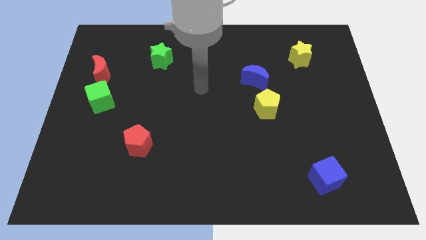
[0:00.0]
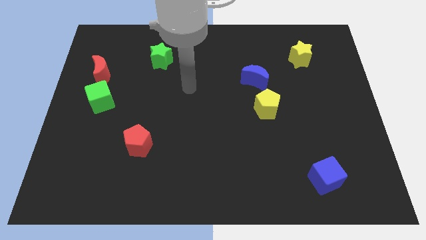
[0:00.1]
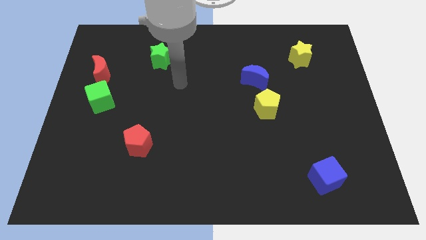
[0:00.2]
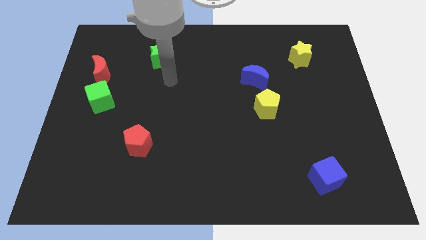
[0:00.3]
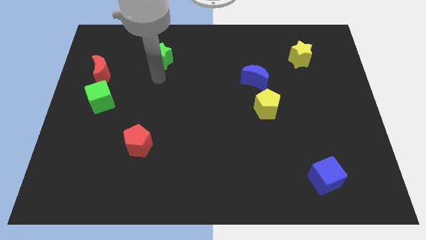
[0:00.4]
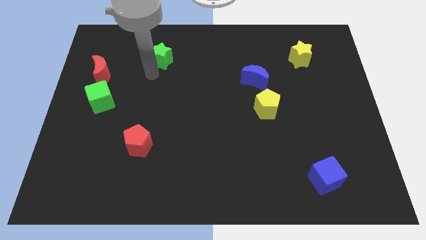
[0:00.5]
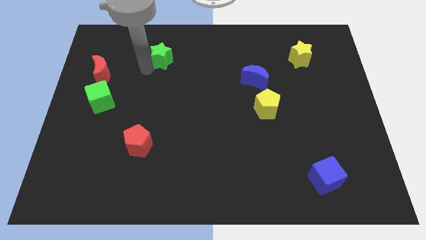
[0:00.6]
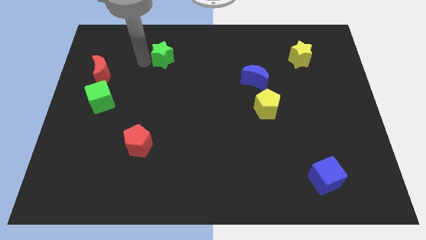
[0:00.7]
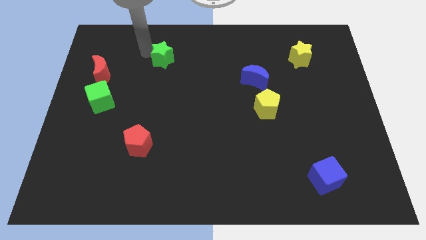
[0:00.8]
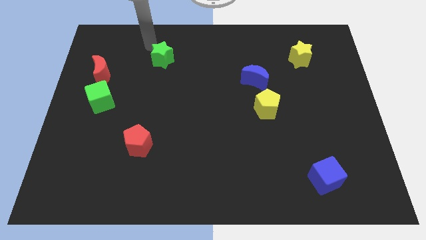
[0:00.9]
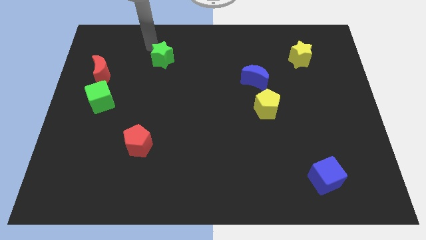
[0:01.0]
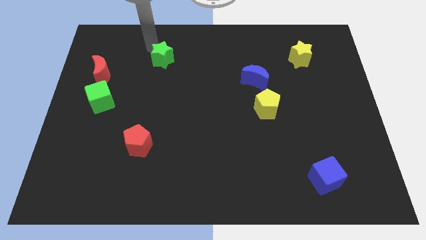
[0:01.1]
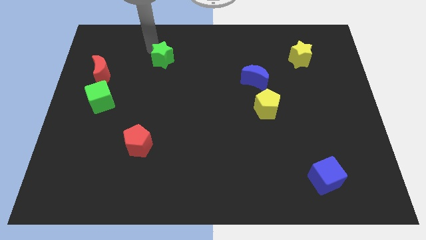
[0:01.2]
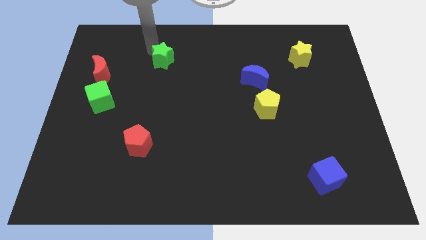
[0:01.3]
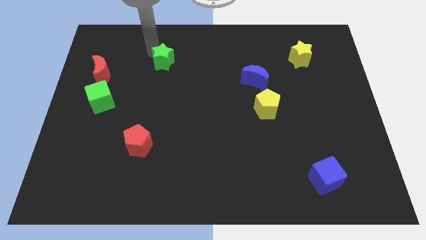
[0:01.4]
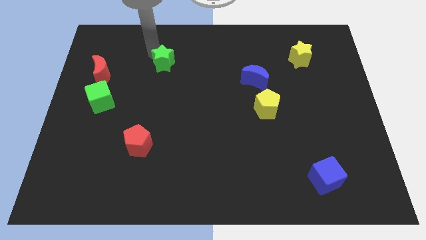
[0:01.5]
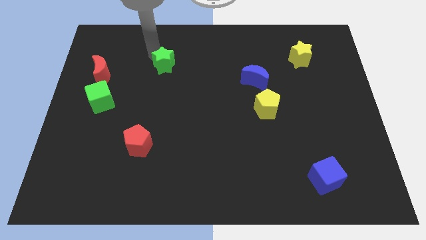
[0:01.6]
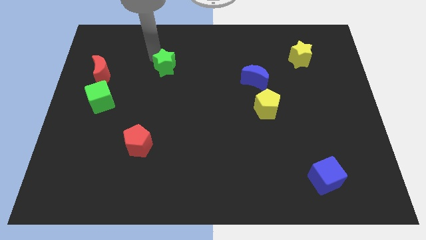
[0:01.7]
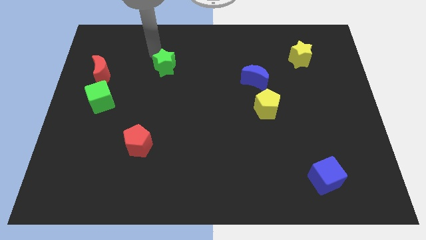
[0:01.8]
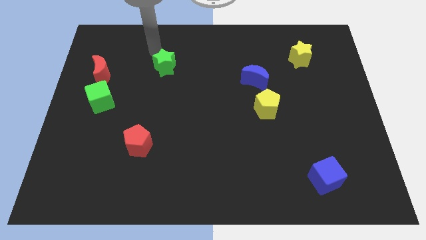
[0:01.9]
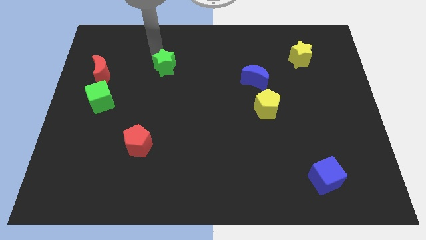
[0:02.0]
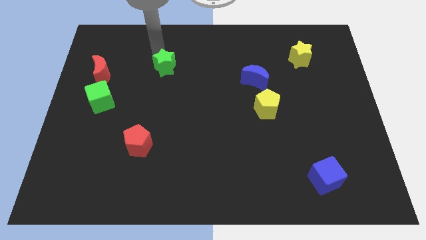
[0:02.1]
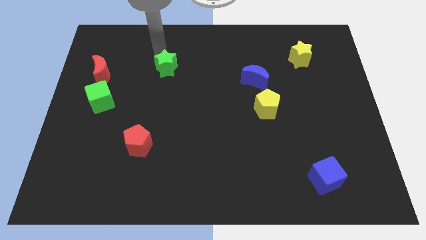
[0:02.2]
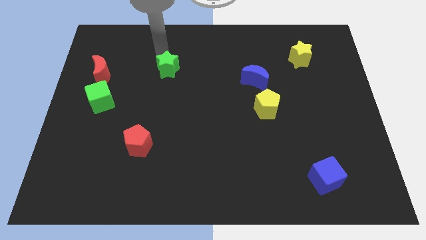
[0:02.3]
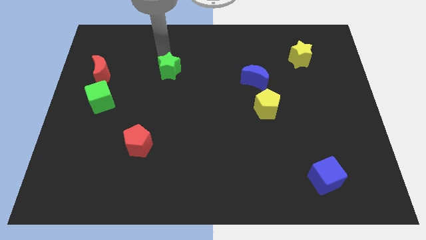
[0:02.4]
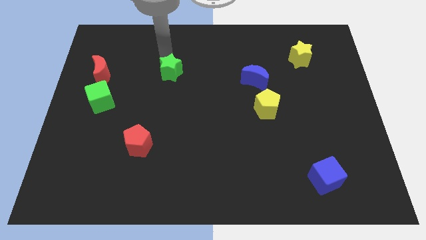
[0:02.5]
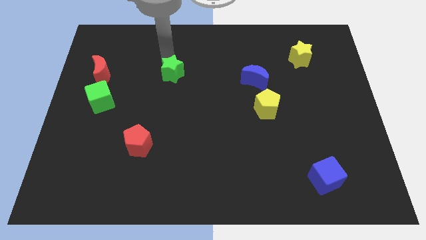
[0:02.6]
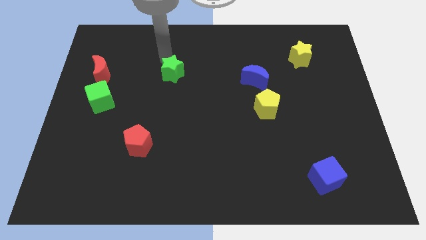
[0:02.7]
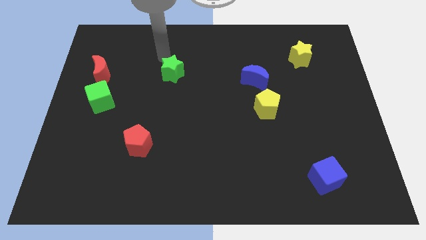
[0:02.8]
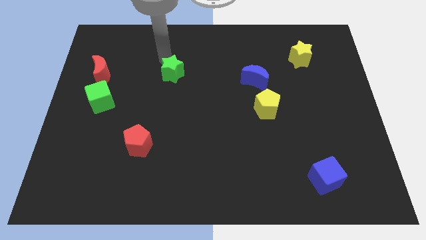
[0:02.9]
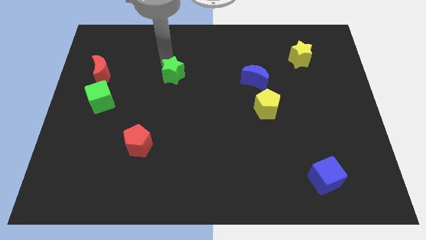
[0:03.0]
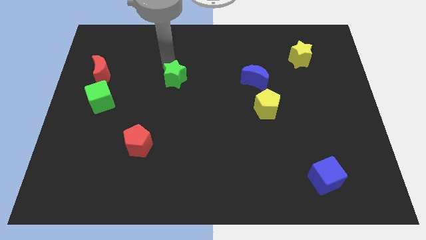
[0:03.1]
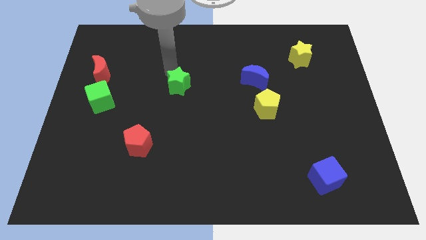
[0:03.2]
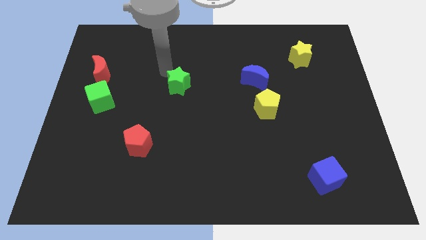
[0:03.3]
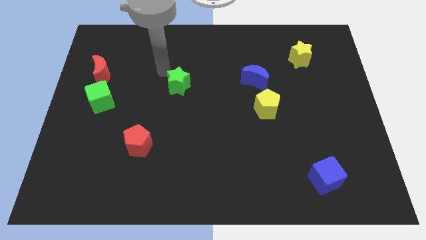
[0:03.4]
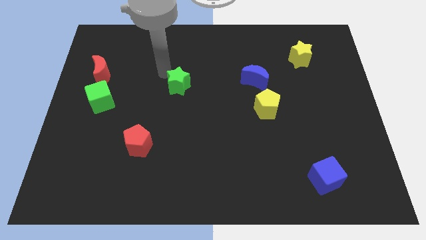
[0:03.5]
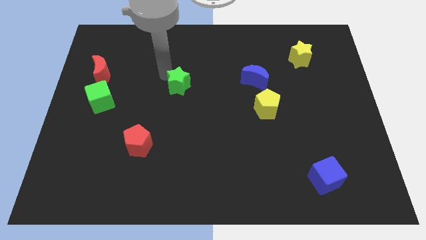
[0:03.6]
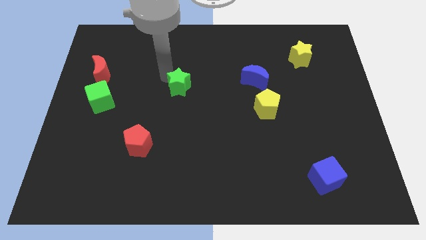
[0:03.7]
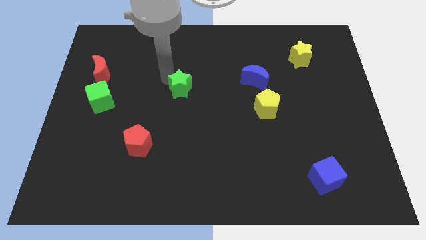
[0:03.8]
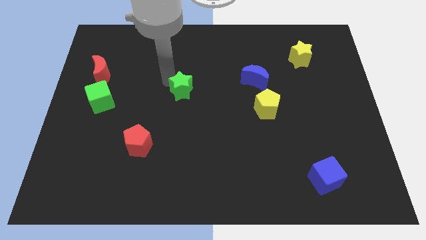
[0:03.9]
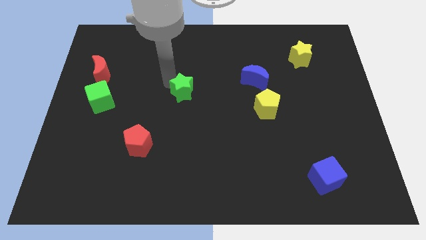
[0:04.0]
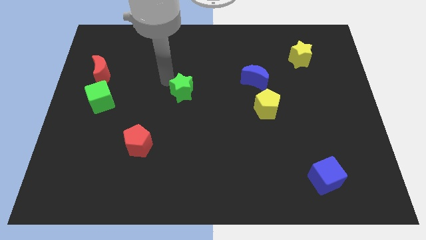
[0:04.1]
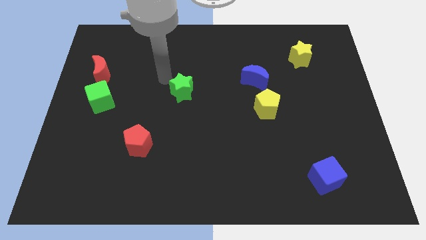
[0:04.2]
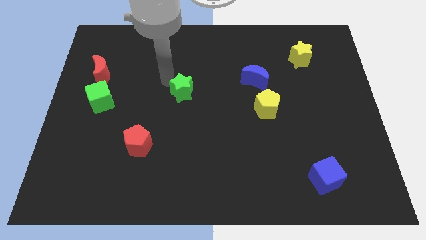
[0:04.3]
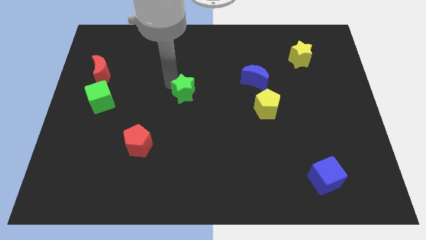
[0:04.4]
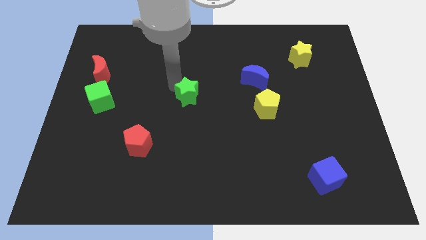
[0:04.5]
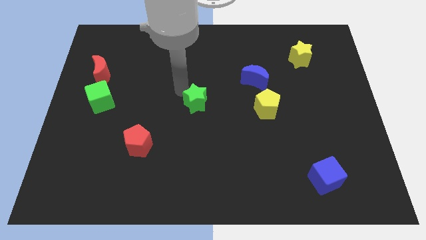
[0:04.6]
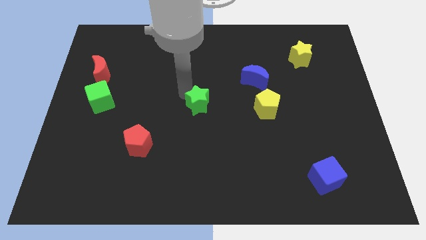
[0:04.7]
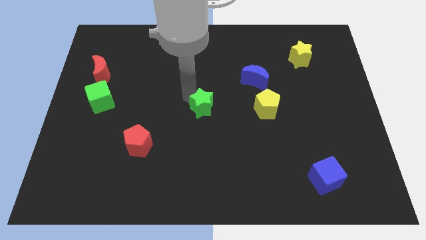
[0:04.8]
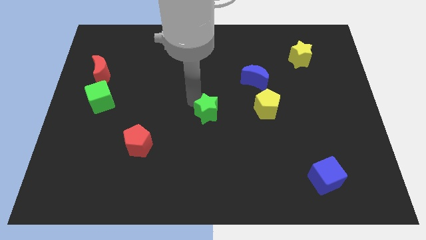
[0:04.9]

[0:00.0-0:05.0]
slide the green star down and then right

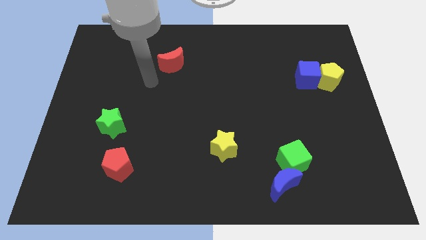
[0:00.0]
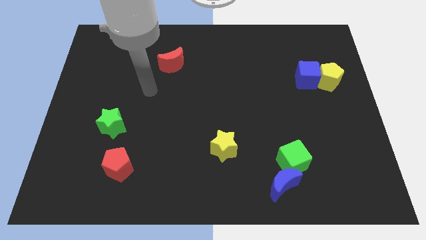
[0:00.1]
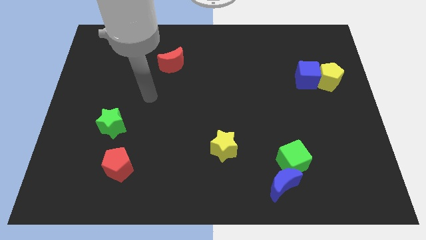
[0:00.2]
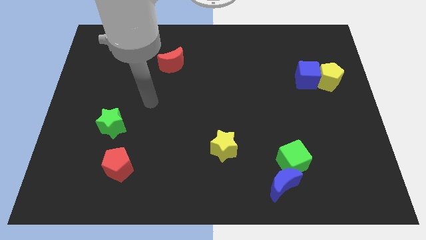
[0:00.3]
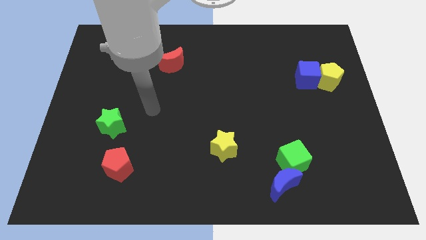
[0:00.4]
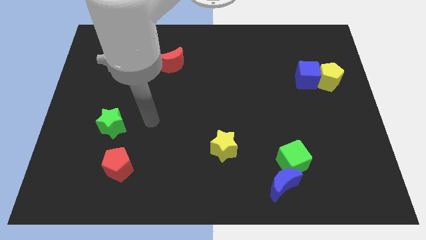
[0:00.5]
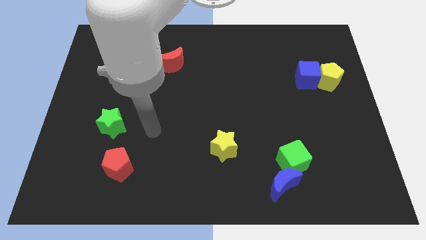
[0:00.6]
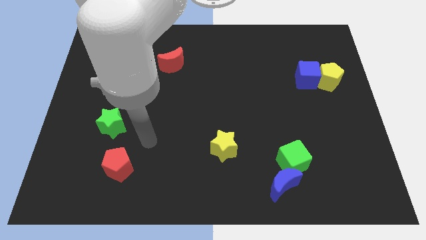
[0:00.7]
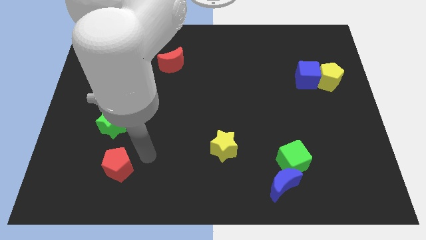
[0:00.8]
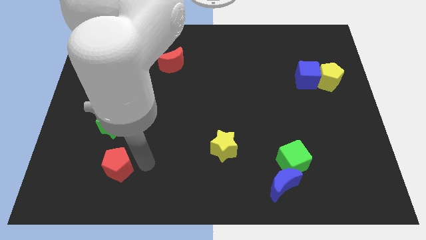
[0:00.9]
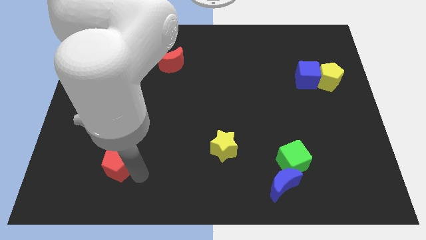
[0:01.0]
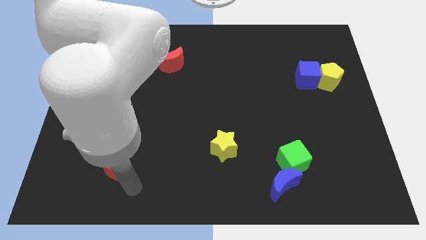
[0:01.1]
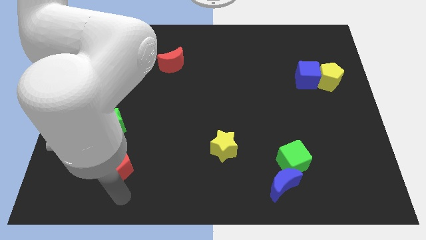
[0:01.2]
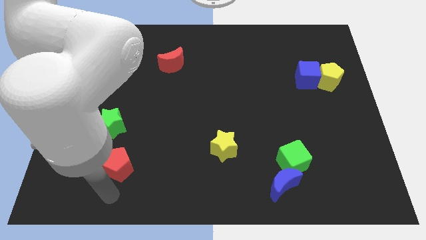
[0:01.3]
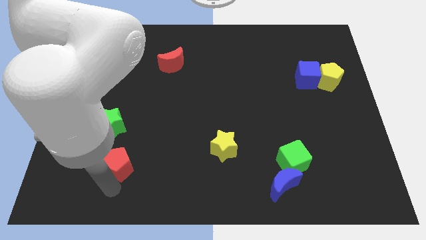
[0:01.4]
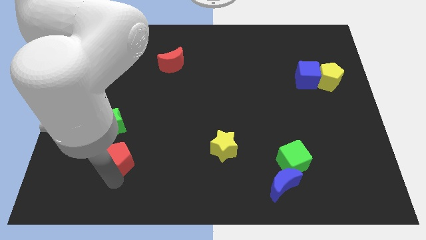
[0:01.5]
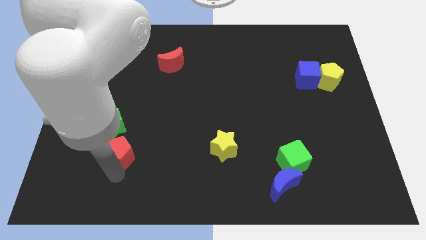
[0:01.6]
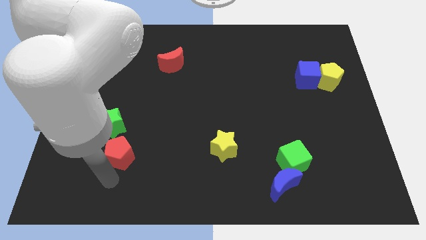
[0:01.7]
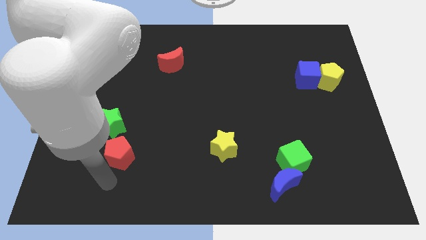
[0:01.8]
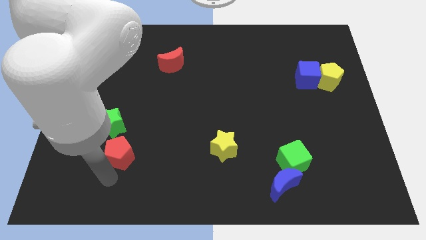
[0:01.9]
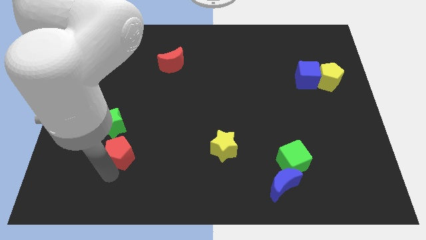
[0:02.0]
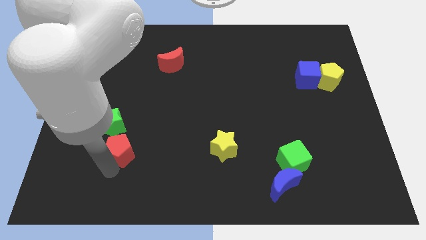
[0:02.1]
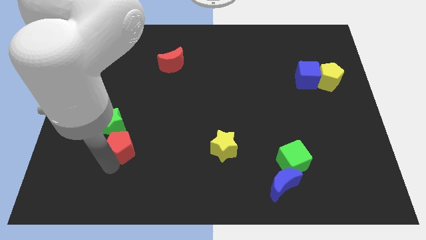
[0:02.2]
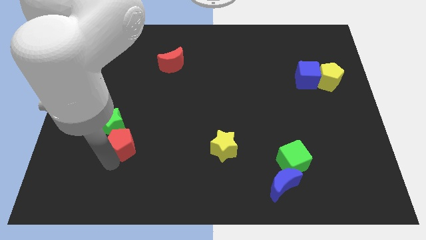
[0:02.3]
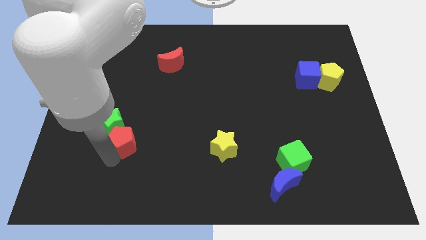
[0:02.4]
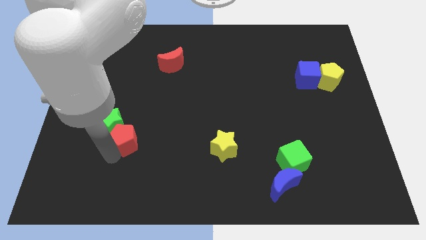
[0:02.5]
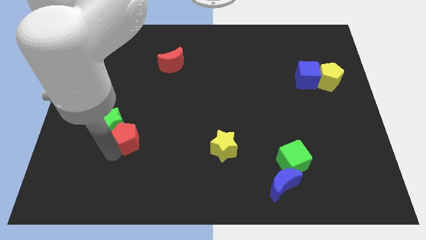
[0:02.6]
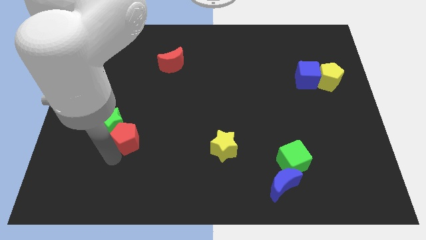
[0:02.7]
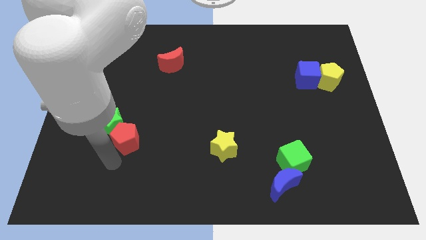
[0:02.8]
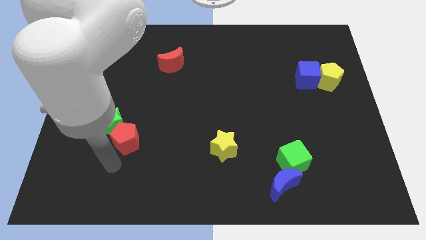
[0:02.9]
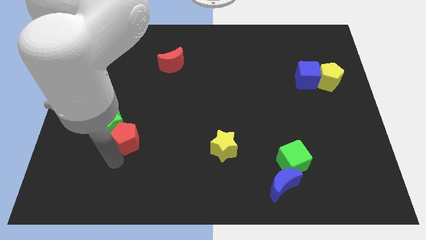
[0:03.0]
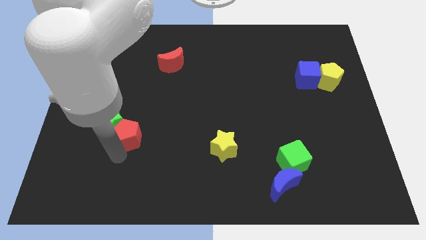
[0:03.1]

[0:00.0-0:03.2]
slightly push the red pentagon upwards
